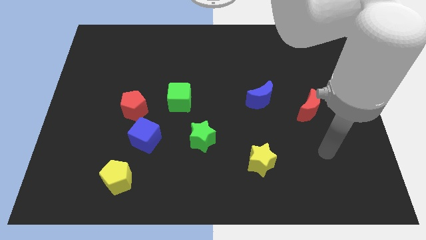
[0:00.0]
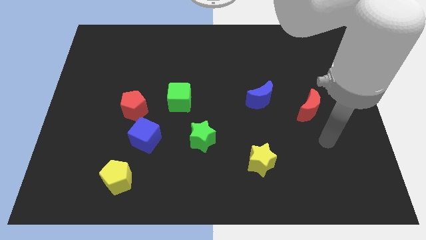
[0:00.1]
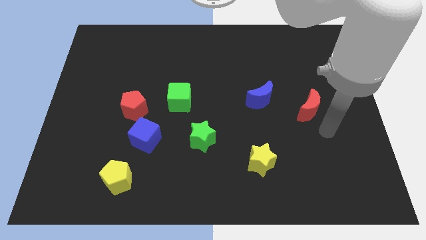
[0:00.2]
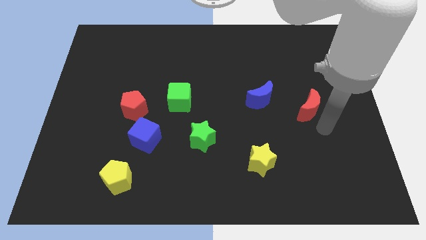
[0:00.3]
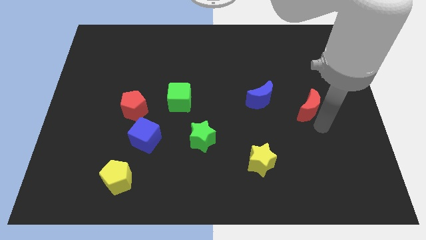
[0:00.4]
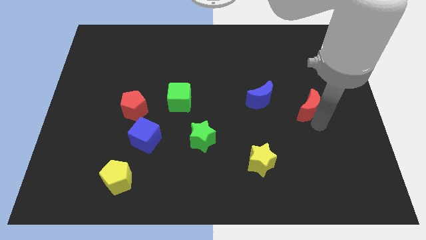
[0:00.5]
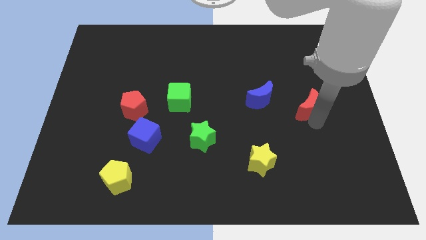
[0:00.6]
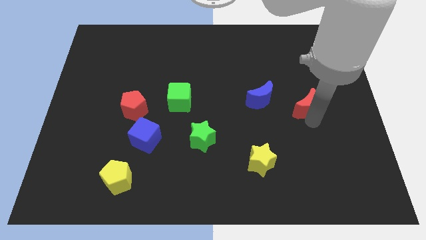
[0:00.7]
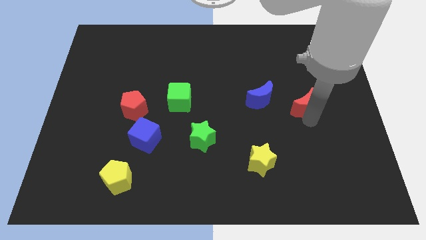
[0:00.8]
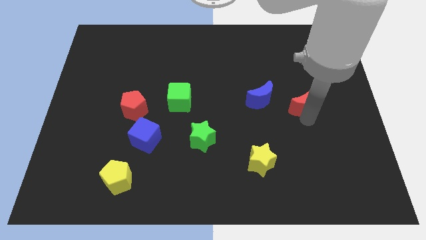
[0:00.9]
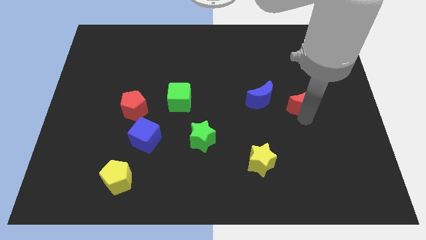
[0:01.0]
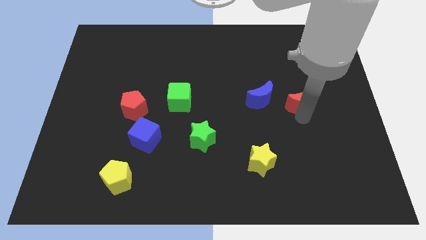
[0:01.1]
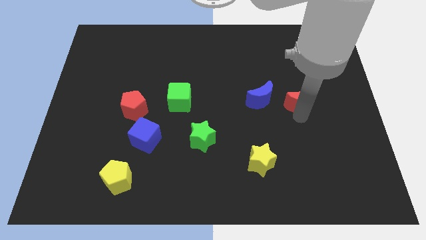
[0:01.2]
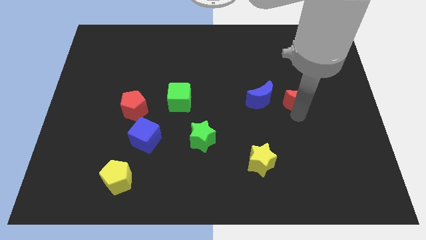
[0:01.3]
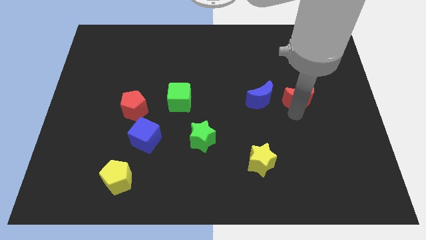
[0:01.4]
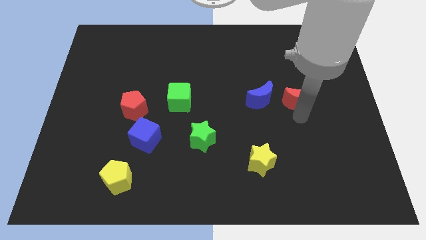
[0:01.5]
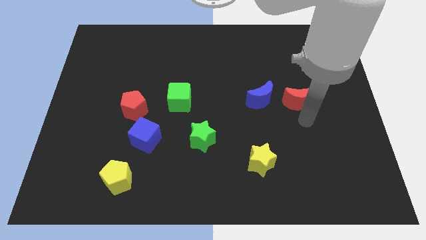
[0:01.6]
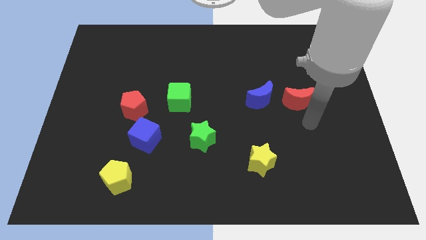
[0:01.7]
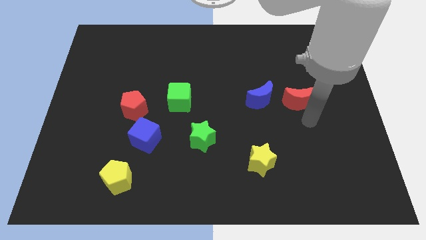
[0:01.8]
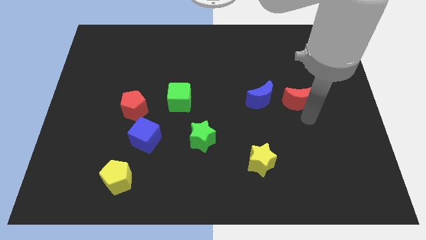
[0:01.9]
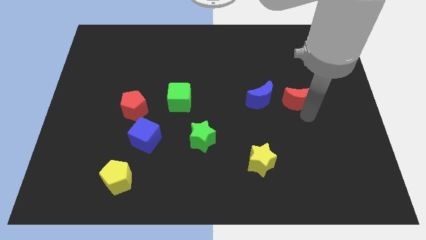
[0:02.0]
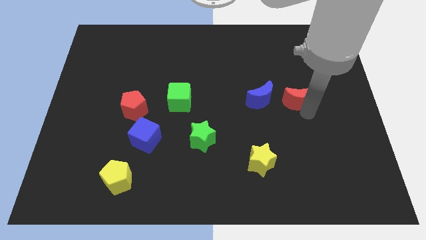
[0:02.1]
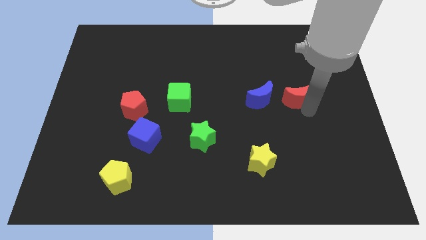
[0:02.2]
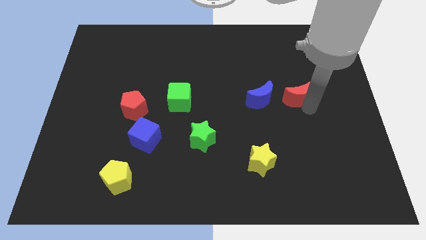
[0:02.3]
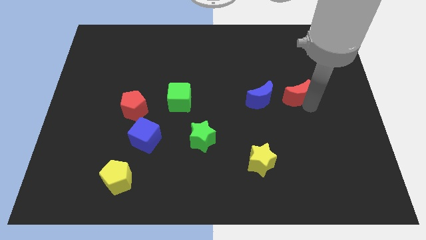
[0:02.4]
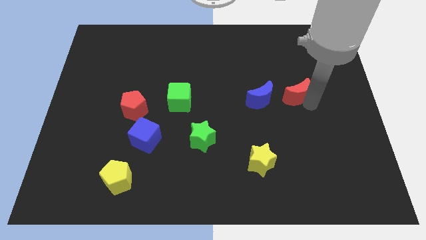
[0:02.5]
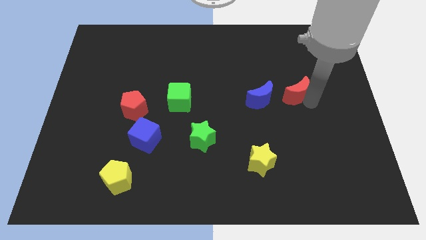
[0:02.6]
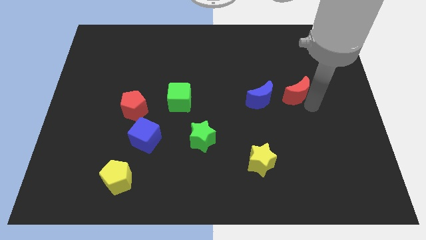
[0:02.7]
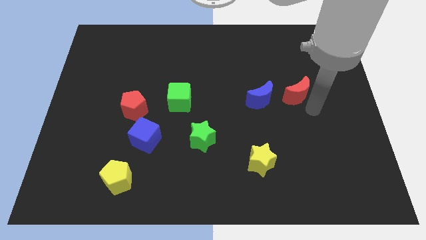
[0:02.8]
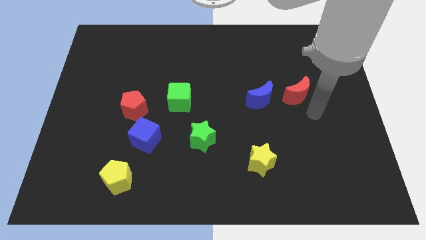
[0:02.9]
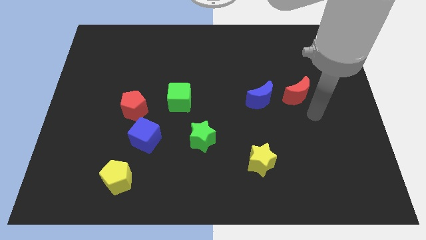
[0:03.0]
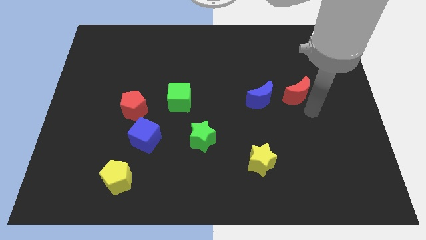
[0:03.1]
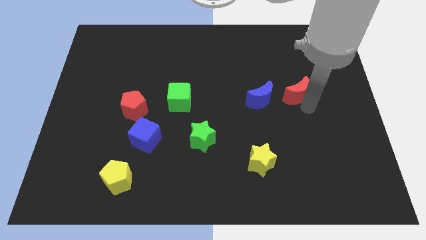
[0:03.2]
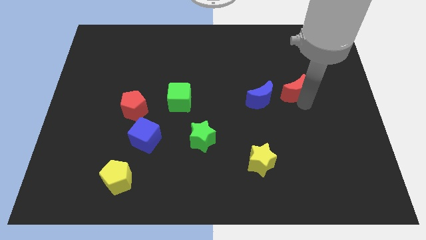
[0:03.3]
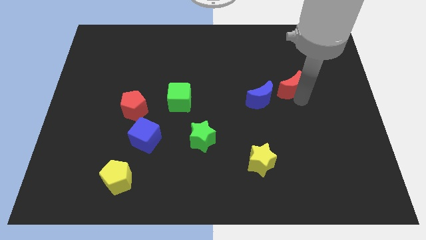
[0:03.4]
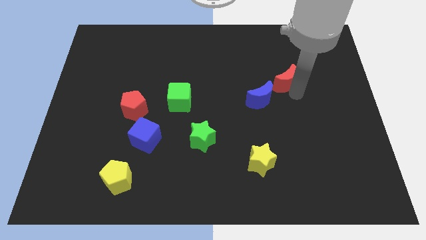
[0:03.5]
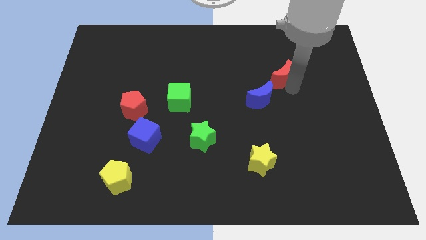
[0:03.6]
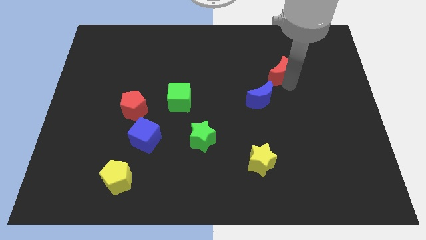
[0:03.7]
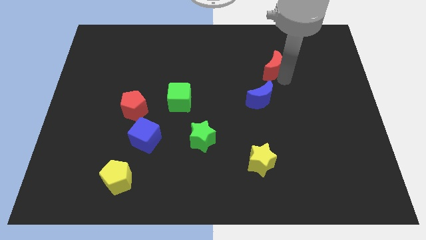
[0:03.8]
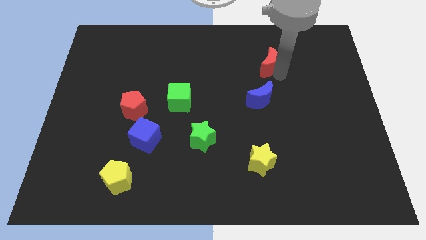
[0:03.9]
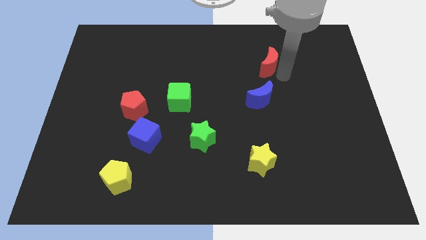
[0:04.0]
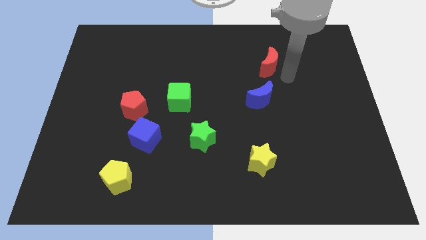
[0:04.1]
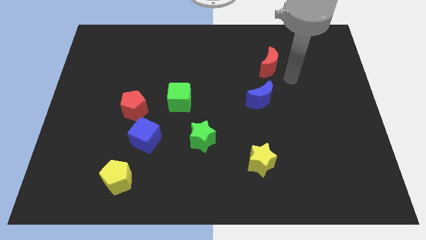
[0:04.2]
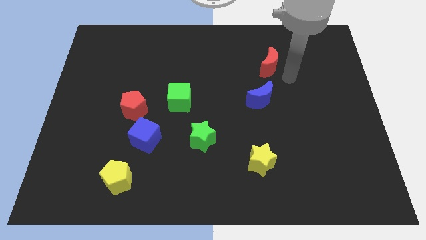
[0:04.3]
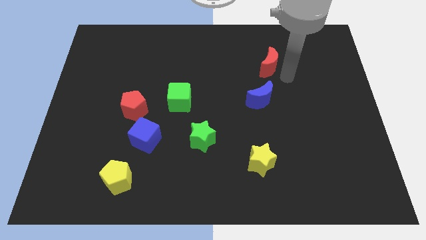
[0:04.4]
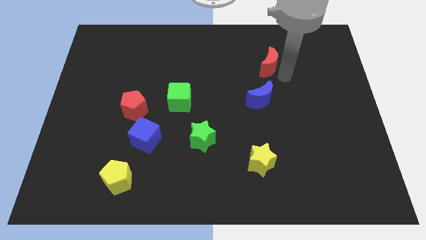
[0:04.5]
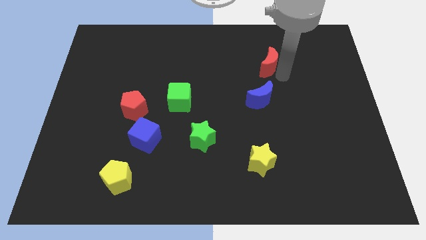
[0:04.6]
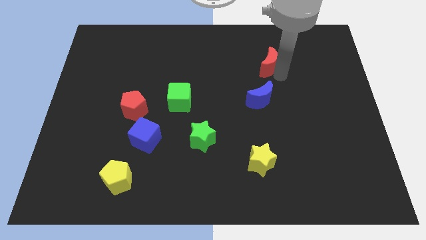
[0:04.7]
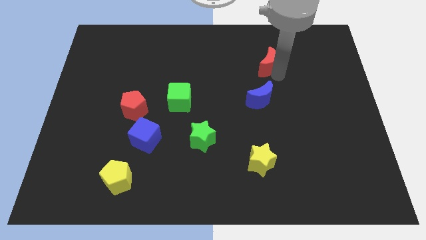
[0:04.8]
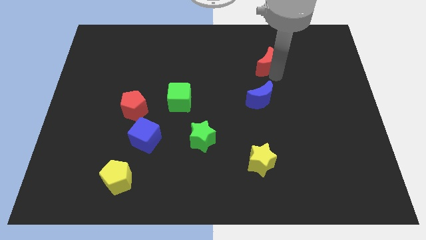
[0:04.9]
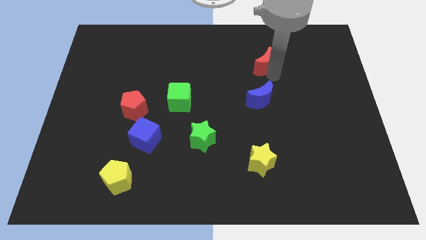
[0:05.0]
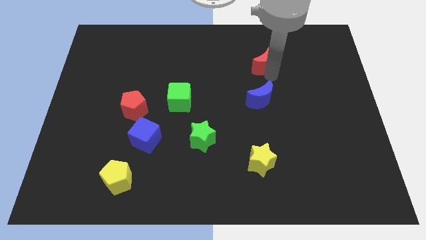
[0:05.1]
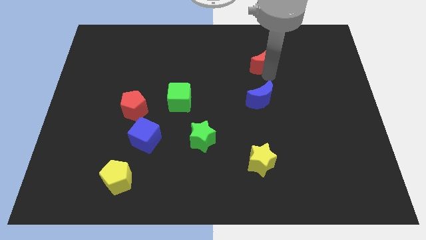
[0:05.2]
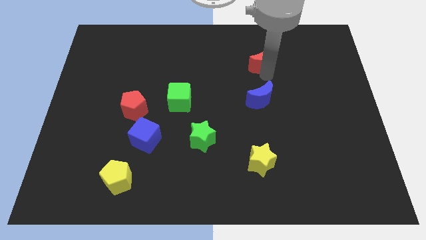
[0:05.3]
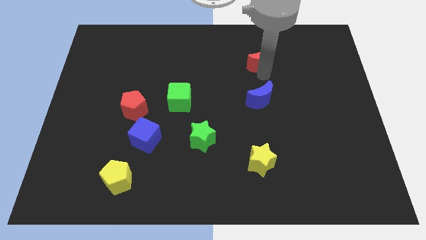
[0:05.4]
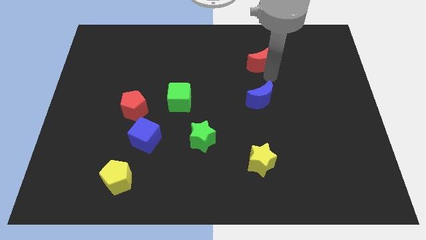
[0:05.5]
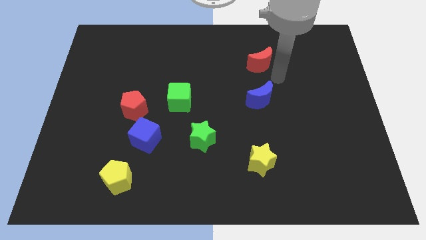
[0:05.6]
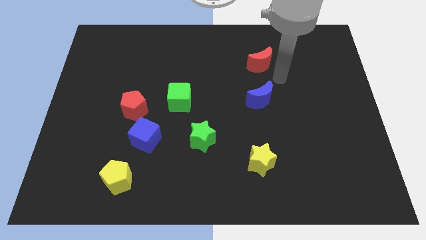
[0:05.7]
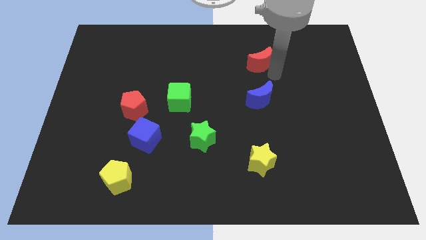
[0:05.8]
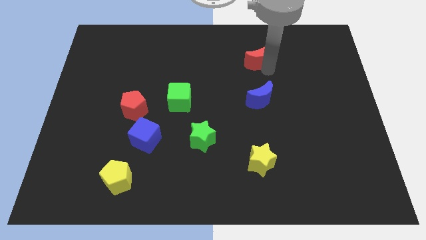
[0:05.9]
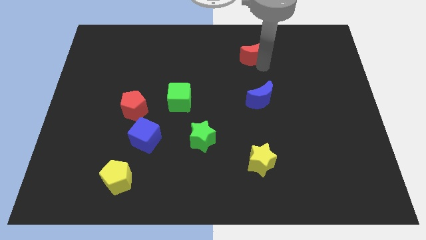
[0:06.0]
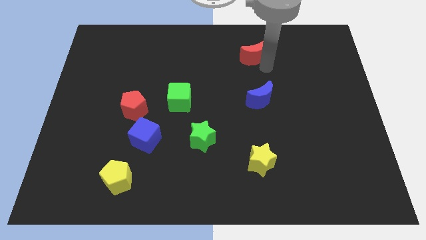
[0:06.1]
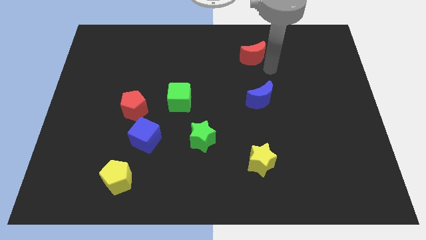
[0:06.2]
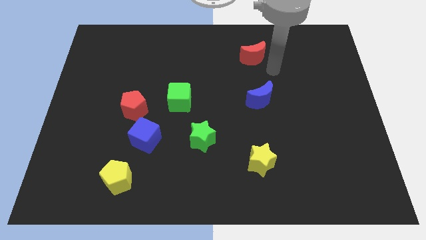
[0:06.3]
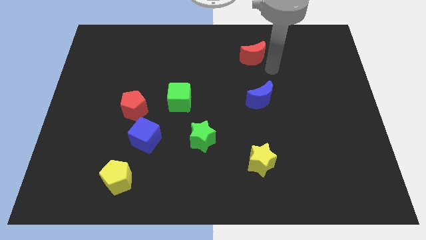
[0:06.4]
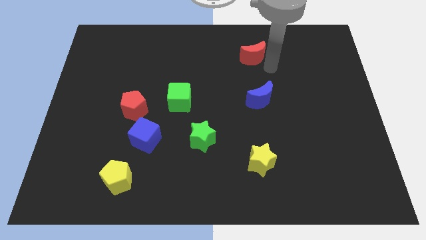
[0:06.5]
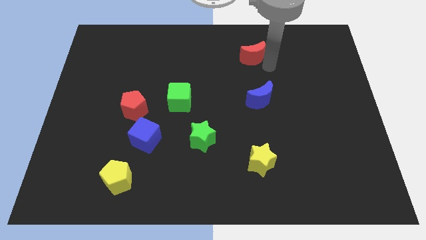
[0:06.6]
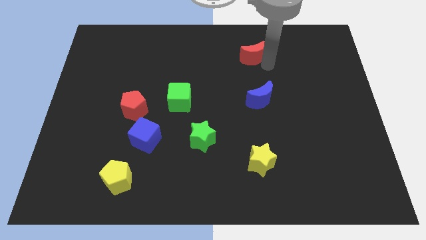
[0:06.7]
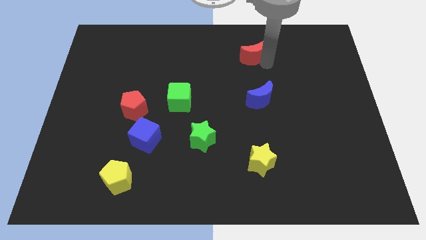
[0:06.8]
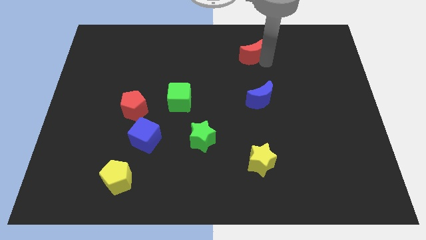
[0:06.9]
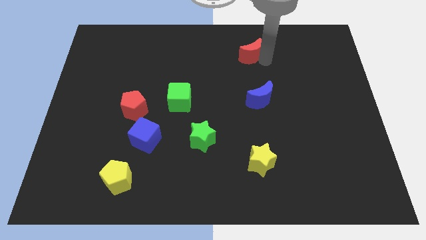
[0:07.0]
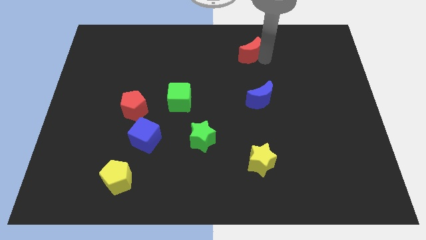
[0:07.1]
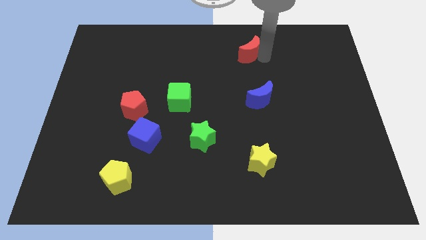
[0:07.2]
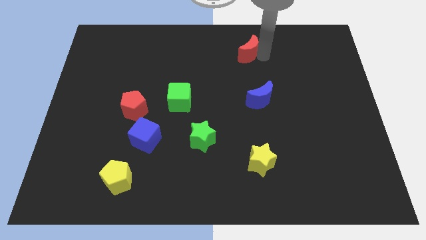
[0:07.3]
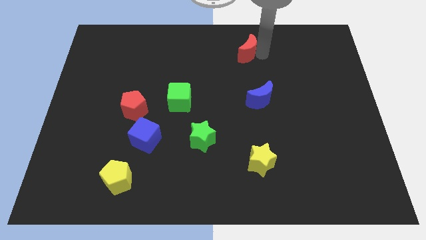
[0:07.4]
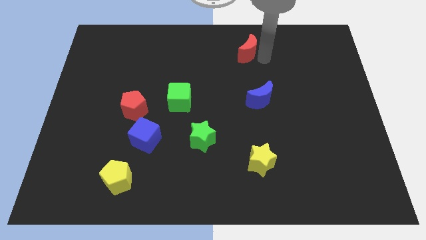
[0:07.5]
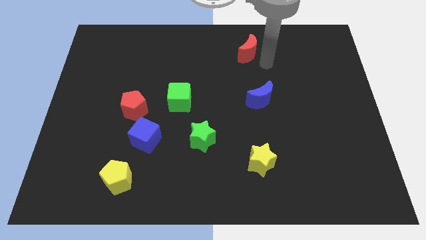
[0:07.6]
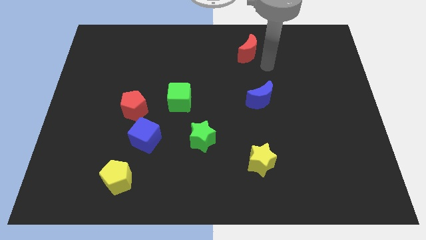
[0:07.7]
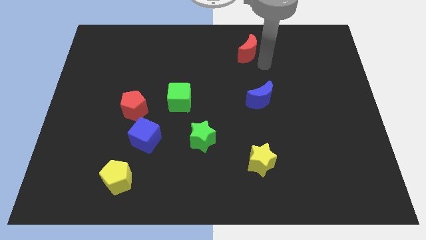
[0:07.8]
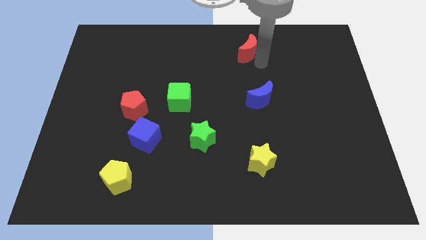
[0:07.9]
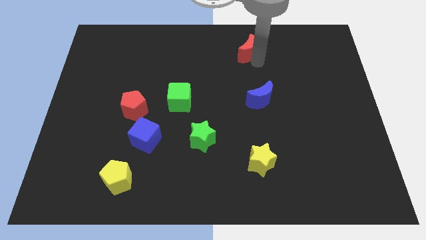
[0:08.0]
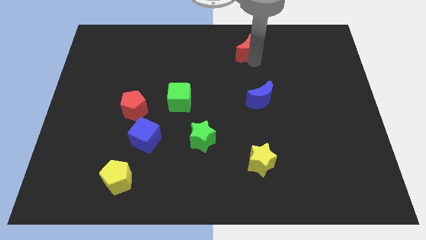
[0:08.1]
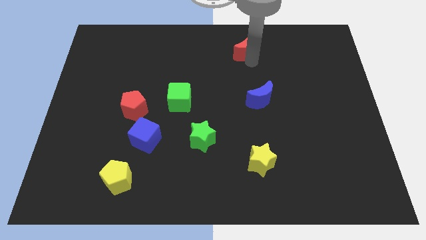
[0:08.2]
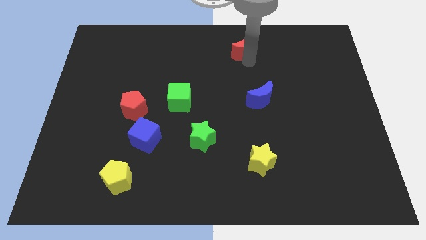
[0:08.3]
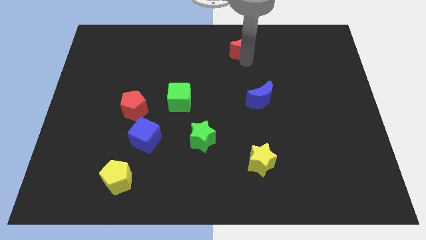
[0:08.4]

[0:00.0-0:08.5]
put the red moon to the top side
